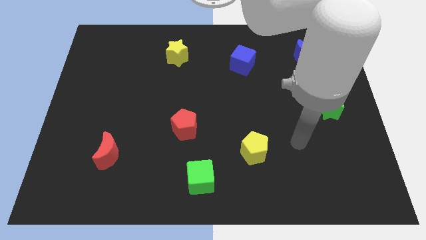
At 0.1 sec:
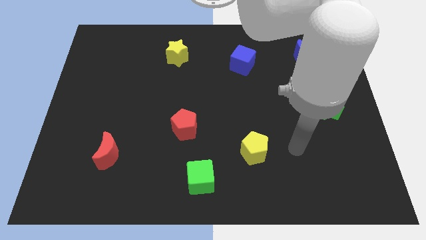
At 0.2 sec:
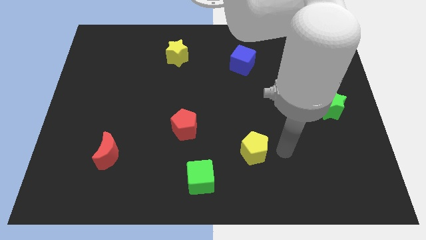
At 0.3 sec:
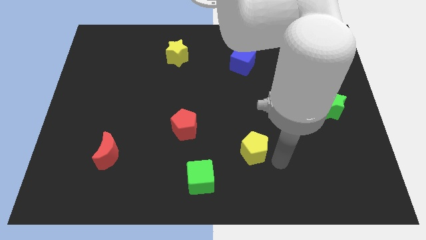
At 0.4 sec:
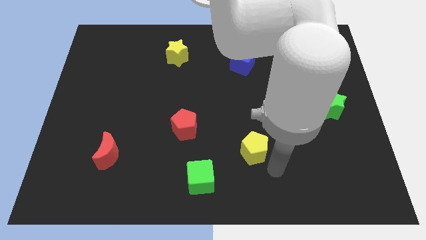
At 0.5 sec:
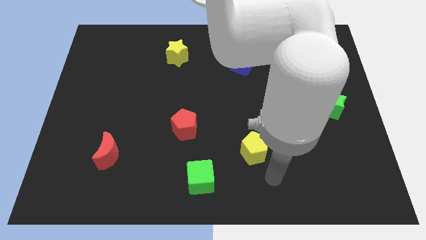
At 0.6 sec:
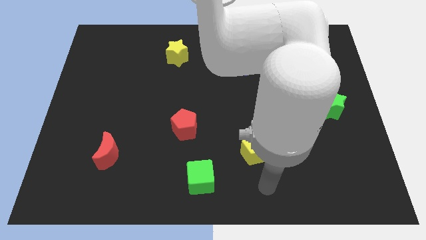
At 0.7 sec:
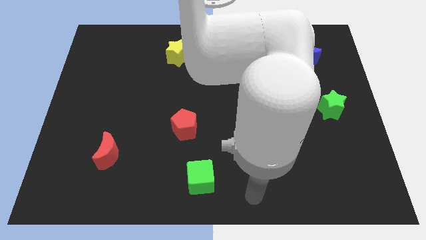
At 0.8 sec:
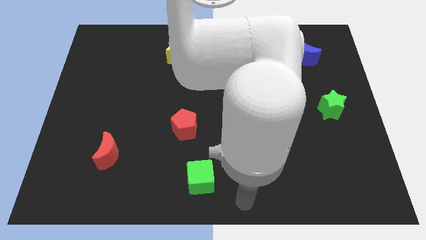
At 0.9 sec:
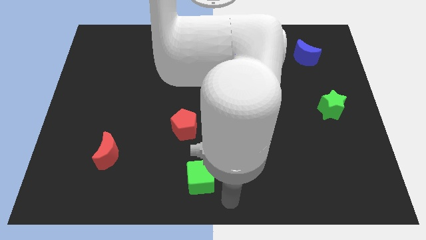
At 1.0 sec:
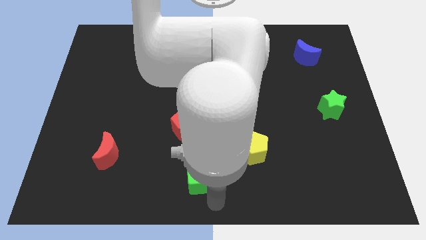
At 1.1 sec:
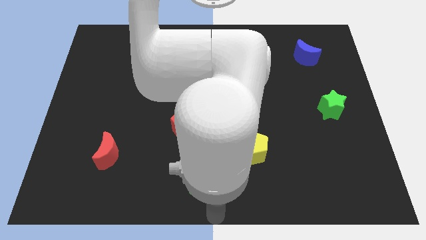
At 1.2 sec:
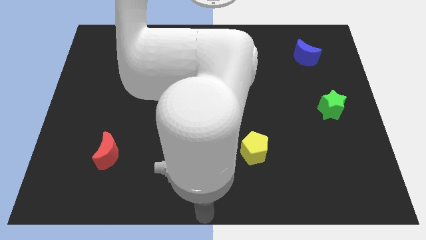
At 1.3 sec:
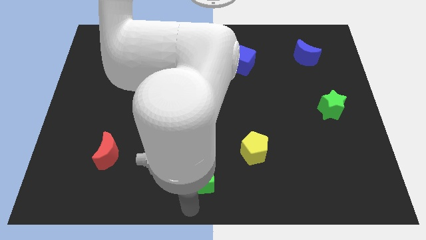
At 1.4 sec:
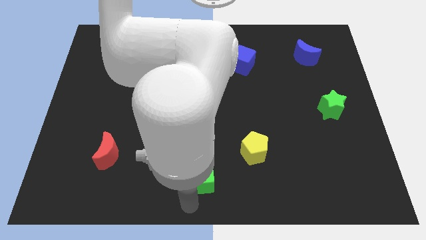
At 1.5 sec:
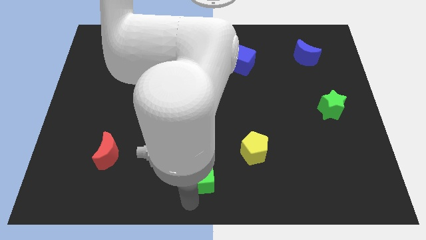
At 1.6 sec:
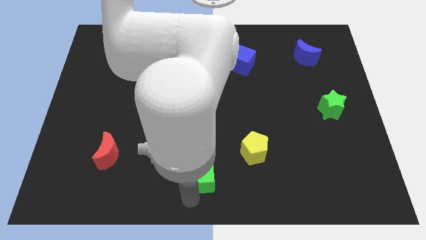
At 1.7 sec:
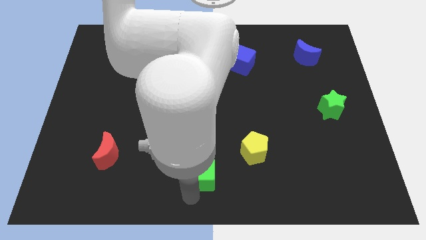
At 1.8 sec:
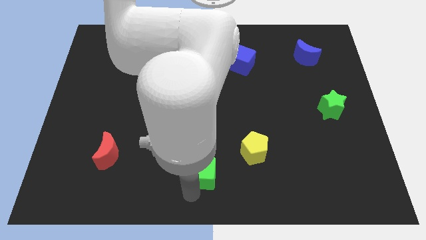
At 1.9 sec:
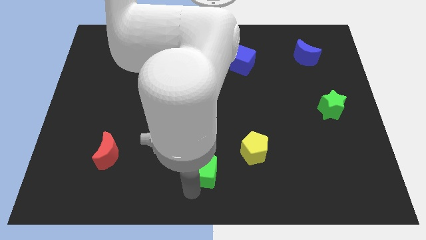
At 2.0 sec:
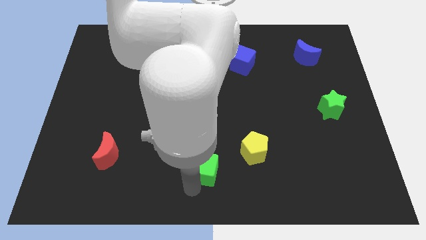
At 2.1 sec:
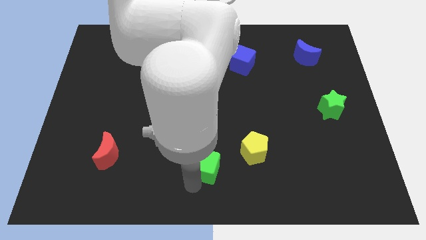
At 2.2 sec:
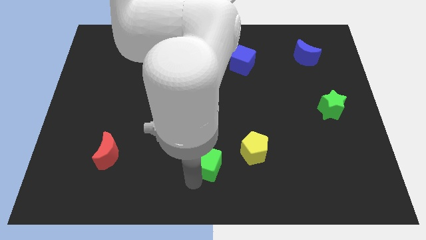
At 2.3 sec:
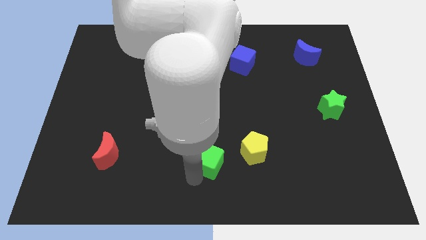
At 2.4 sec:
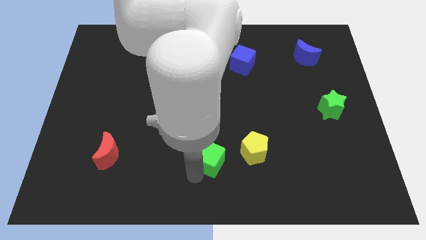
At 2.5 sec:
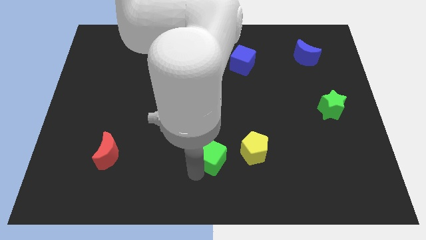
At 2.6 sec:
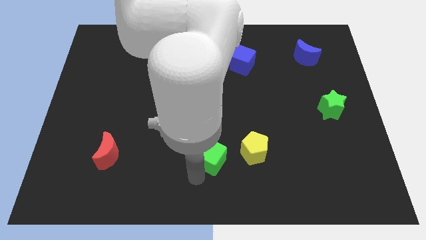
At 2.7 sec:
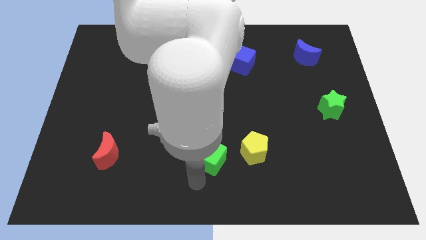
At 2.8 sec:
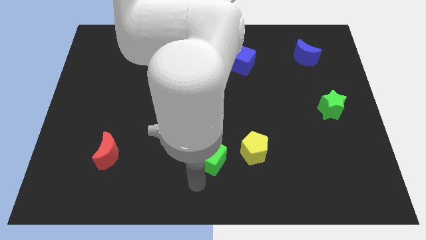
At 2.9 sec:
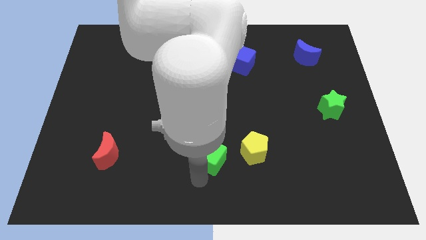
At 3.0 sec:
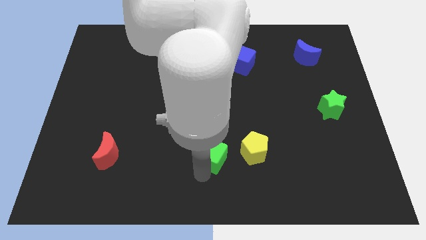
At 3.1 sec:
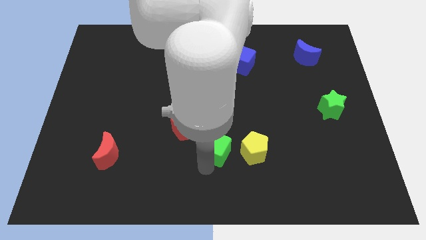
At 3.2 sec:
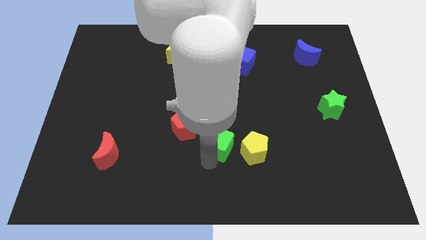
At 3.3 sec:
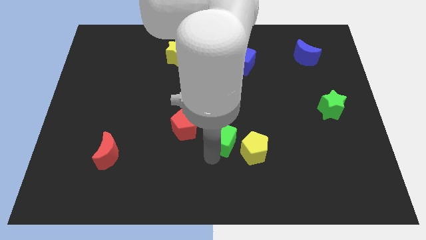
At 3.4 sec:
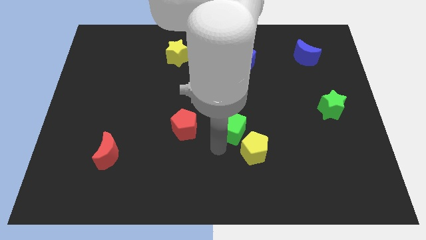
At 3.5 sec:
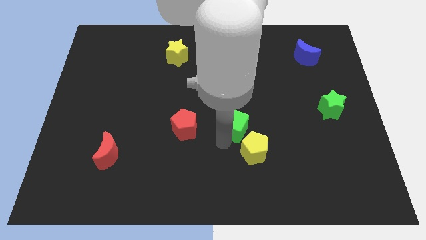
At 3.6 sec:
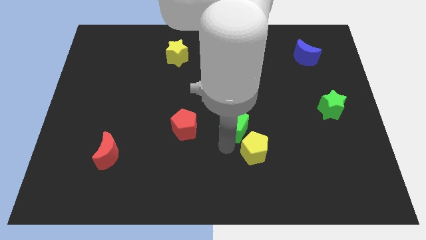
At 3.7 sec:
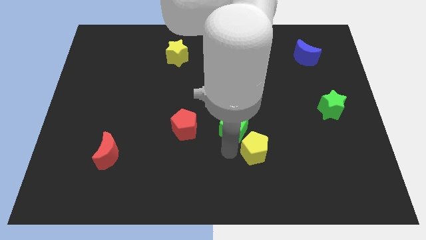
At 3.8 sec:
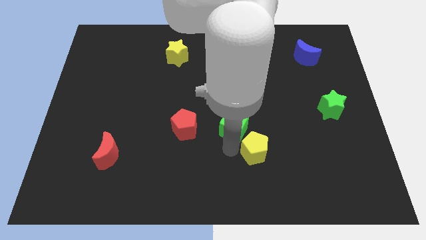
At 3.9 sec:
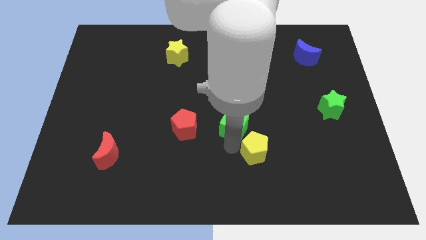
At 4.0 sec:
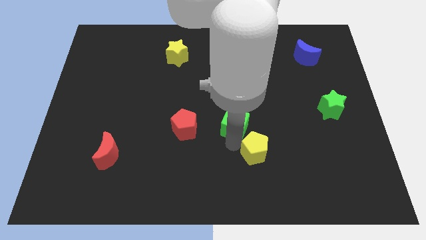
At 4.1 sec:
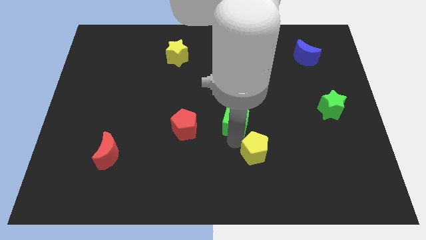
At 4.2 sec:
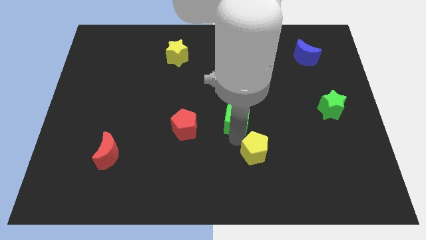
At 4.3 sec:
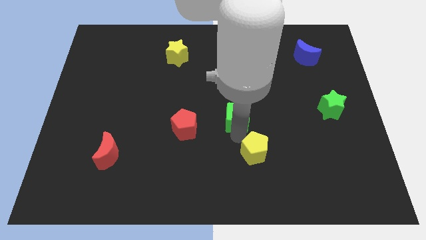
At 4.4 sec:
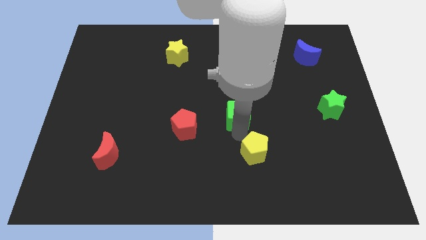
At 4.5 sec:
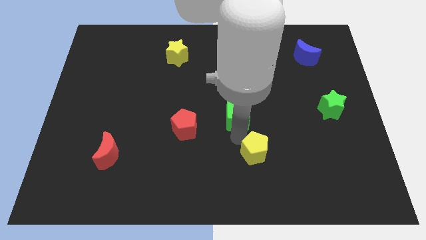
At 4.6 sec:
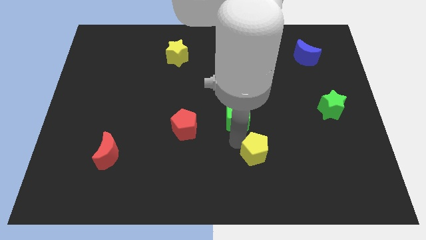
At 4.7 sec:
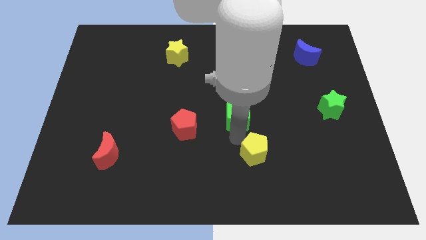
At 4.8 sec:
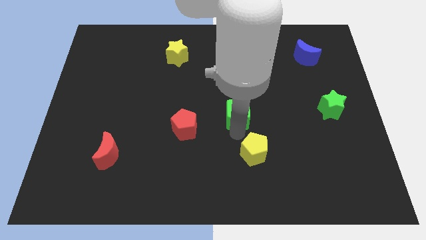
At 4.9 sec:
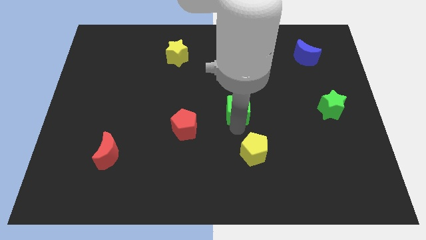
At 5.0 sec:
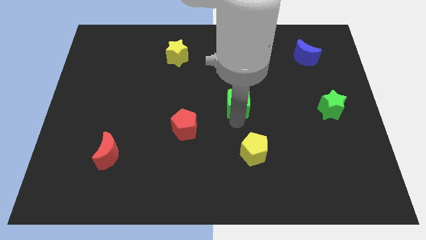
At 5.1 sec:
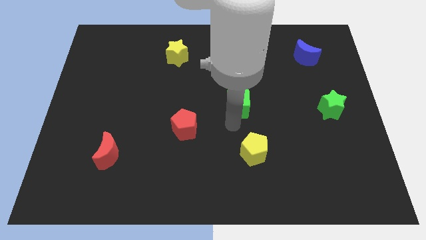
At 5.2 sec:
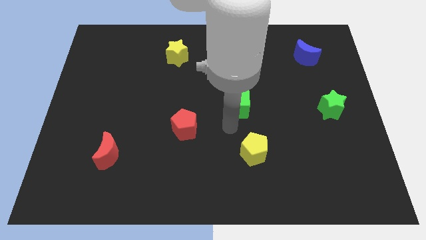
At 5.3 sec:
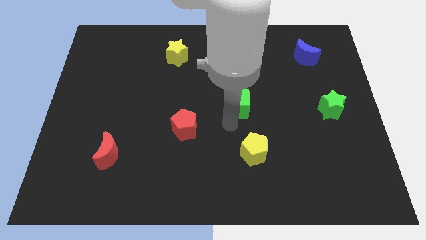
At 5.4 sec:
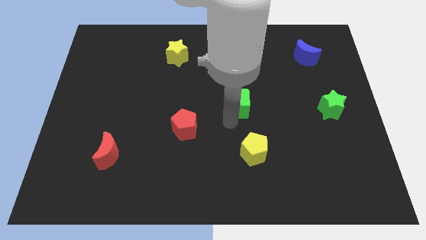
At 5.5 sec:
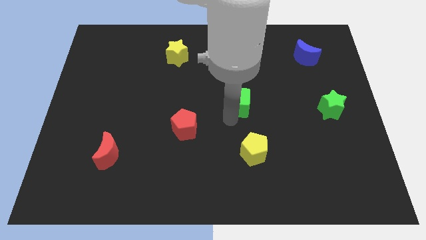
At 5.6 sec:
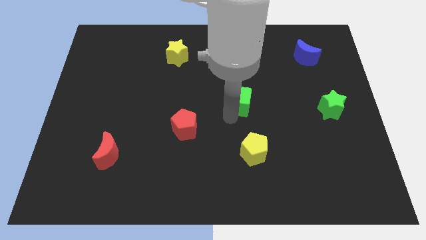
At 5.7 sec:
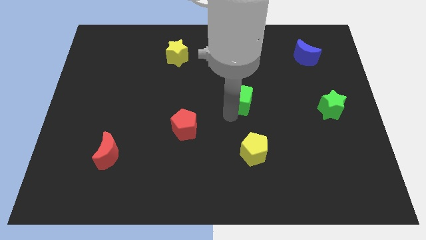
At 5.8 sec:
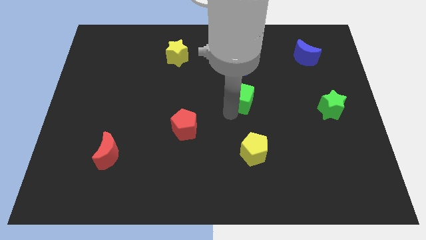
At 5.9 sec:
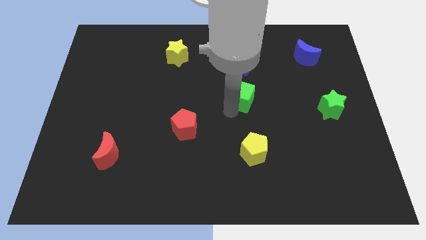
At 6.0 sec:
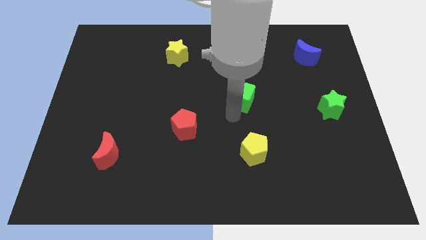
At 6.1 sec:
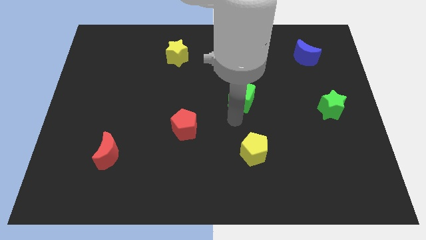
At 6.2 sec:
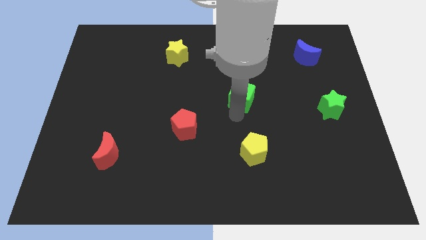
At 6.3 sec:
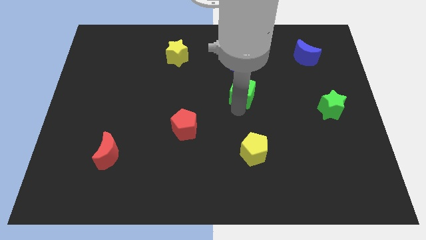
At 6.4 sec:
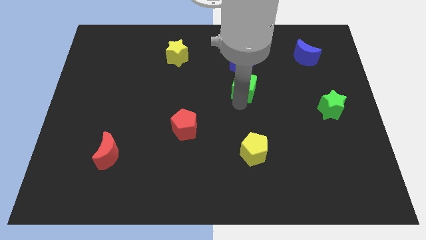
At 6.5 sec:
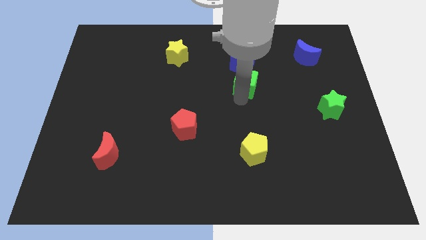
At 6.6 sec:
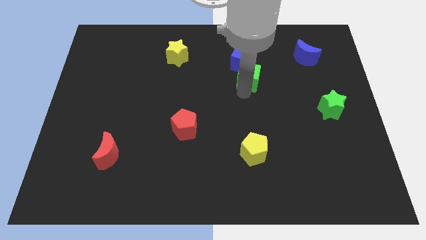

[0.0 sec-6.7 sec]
push the green cube to the blue cube
